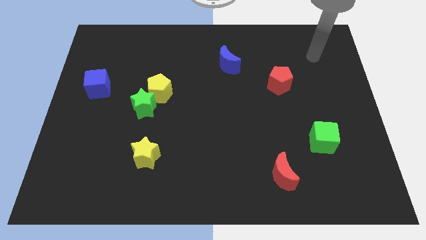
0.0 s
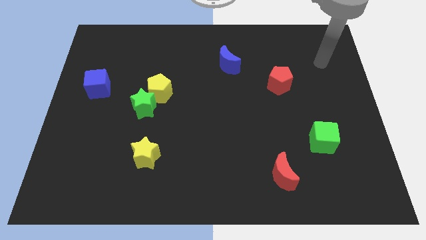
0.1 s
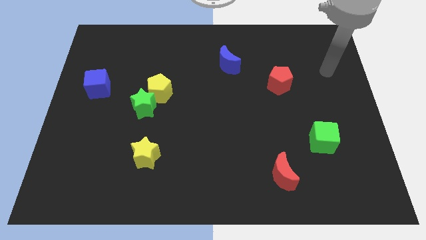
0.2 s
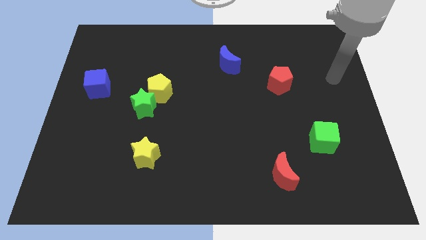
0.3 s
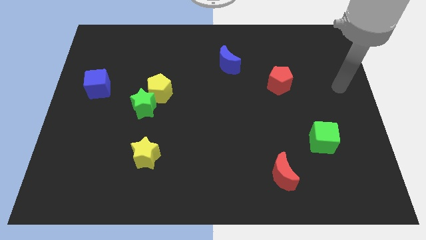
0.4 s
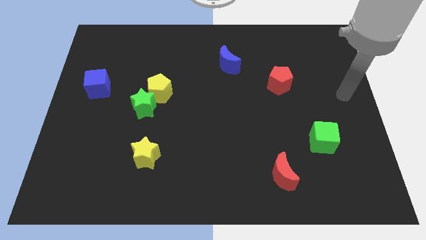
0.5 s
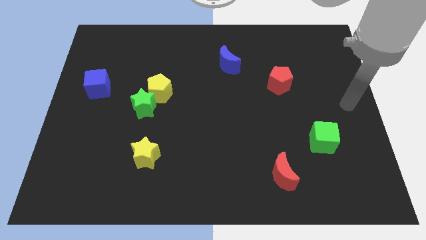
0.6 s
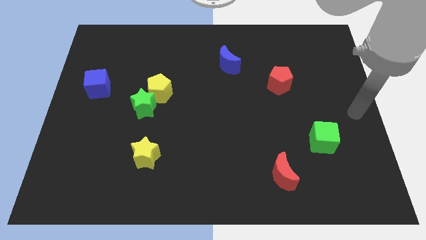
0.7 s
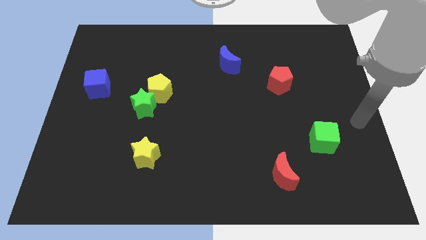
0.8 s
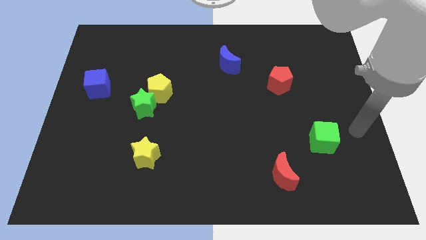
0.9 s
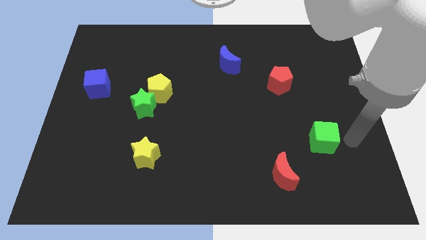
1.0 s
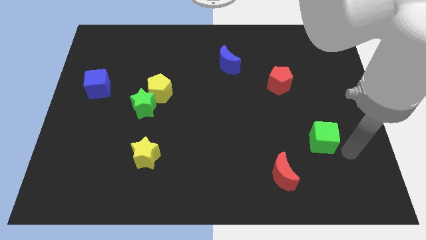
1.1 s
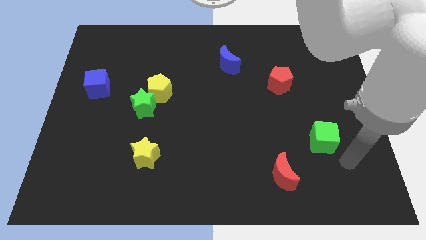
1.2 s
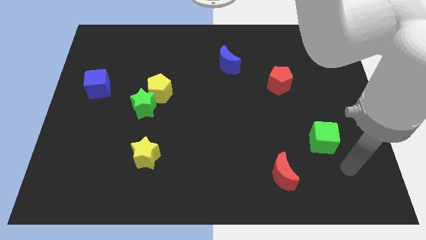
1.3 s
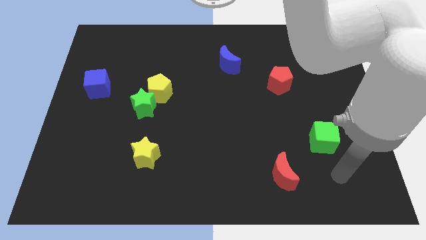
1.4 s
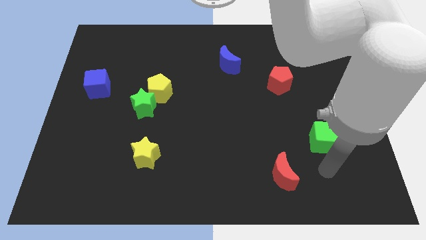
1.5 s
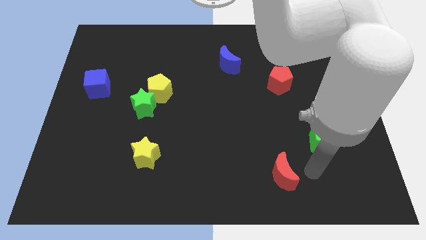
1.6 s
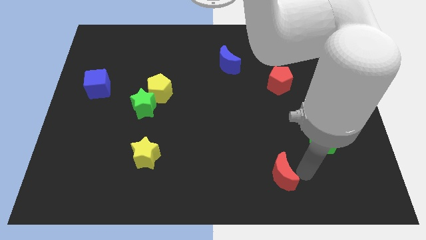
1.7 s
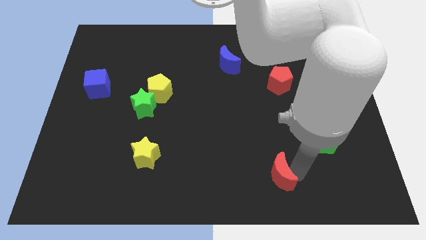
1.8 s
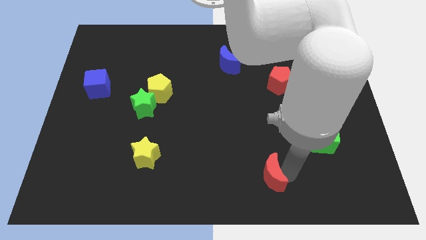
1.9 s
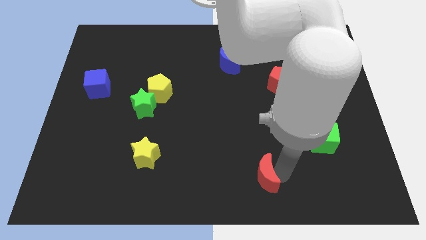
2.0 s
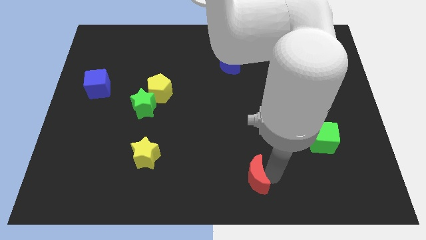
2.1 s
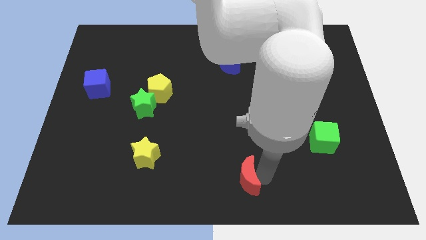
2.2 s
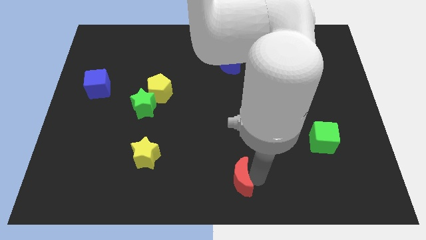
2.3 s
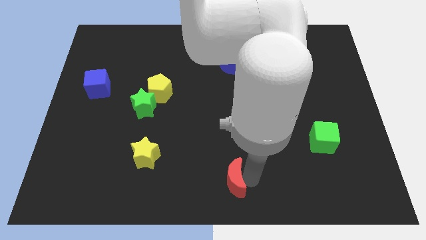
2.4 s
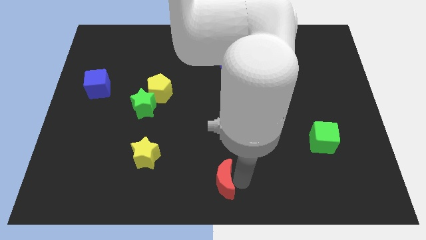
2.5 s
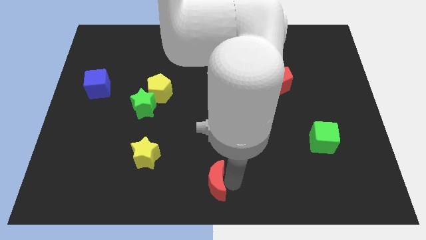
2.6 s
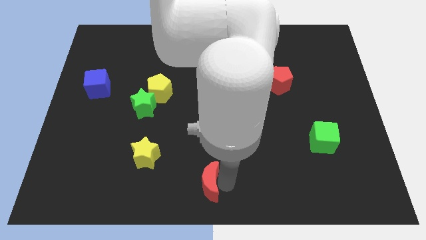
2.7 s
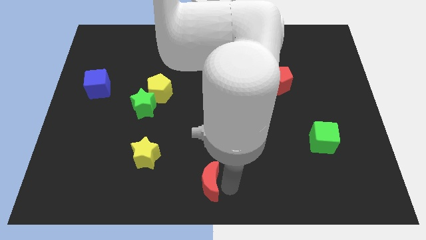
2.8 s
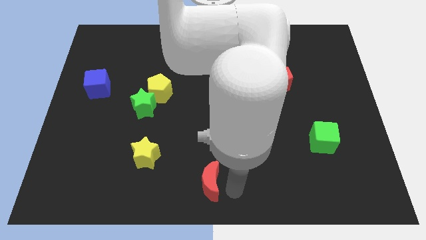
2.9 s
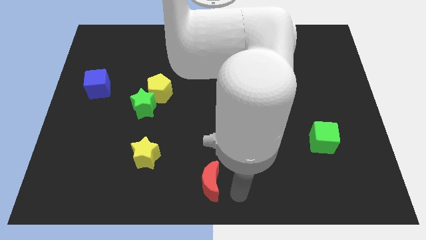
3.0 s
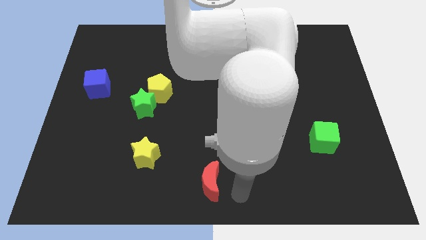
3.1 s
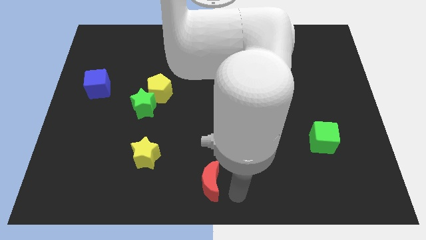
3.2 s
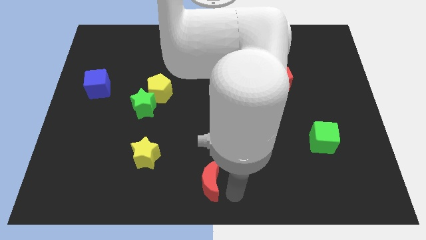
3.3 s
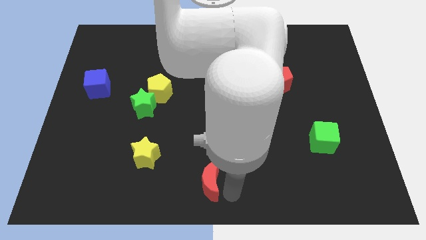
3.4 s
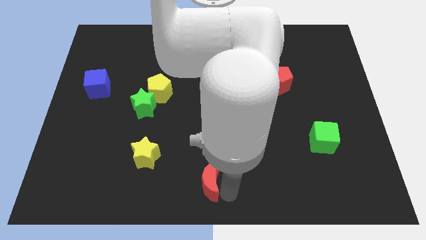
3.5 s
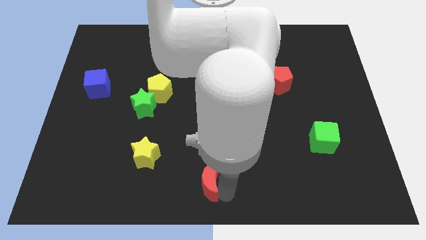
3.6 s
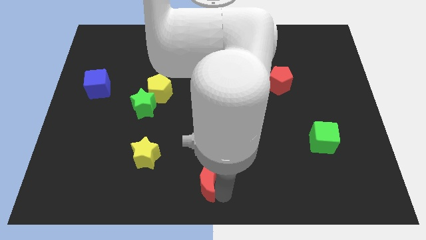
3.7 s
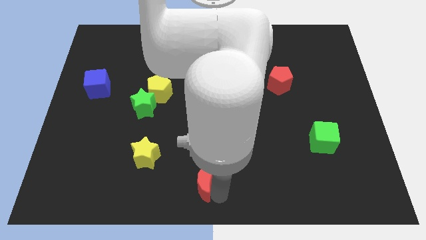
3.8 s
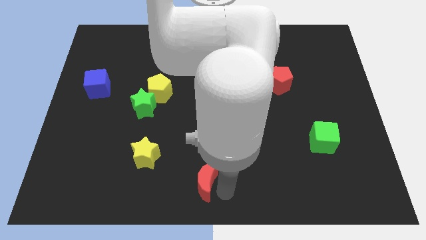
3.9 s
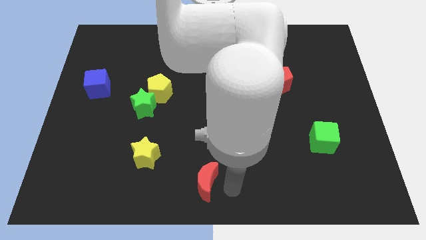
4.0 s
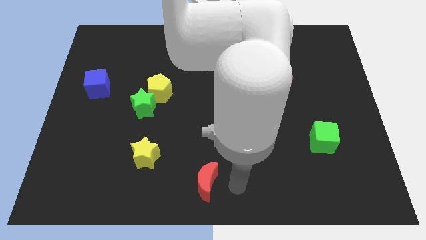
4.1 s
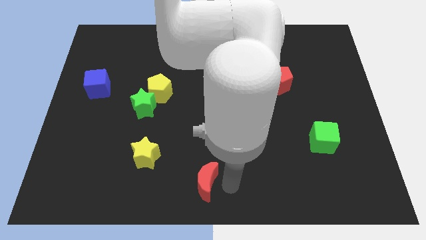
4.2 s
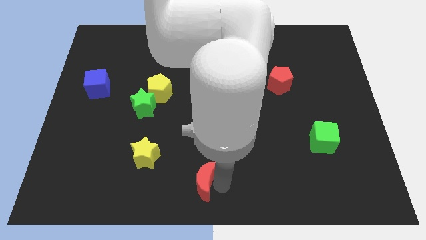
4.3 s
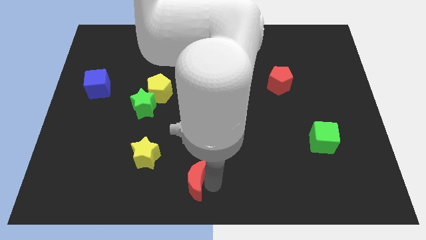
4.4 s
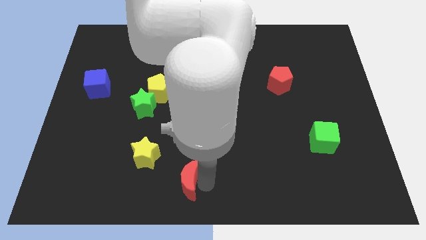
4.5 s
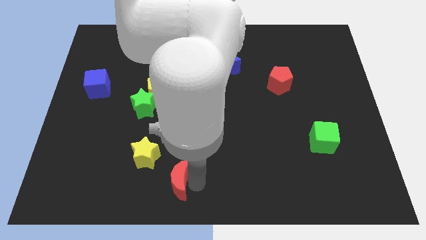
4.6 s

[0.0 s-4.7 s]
push the red moon left

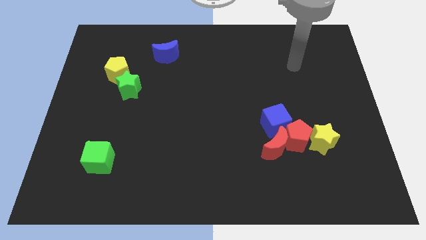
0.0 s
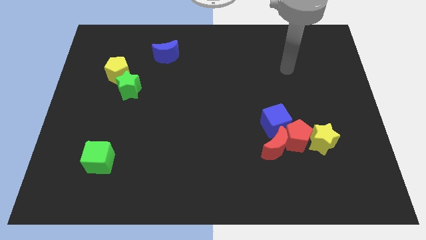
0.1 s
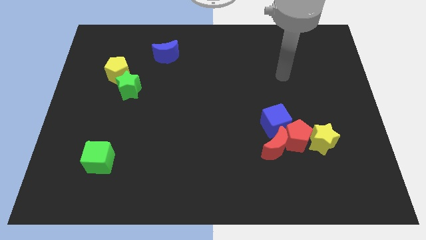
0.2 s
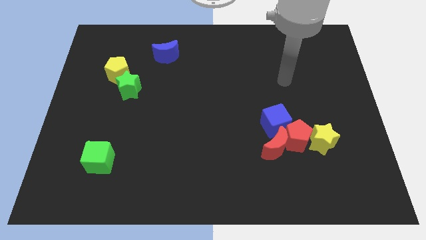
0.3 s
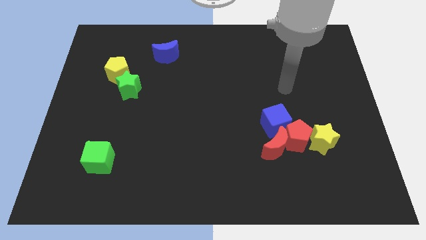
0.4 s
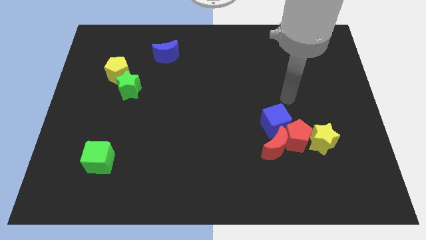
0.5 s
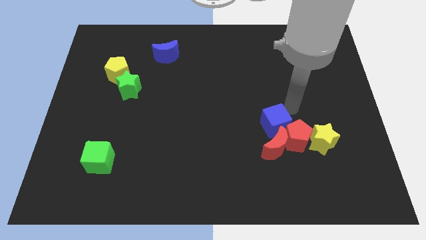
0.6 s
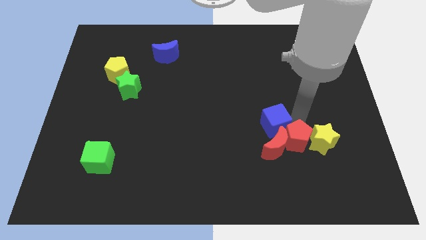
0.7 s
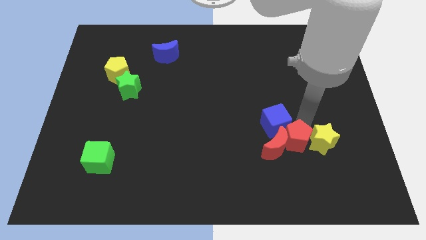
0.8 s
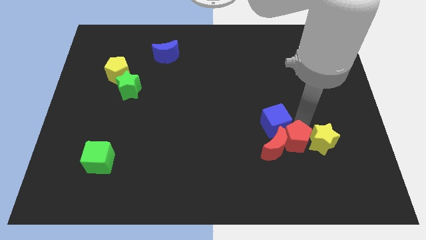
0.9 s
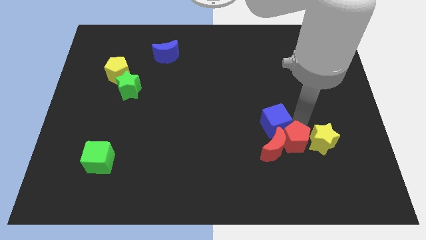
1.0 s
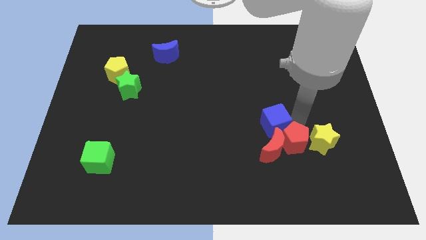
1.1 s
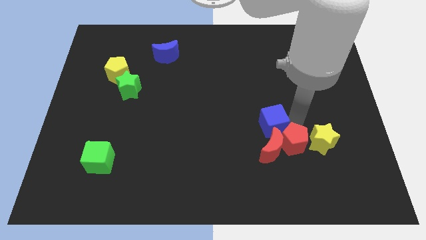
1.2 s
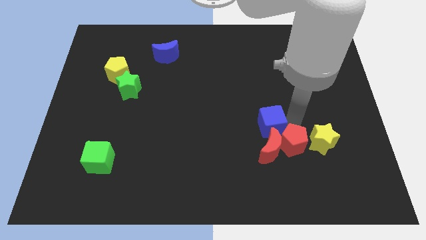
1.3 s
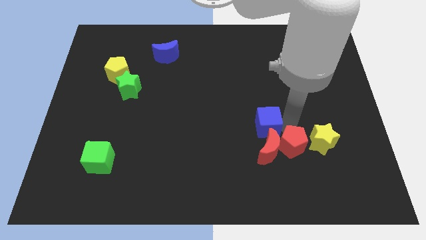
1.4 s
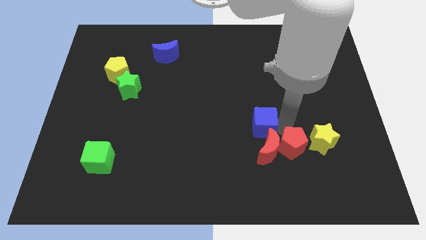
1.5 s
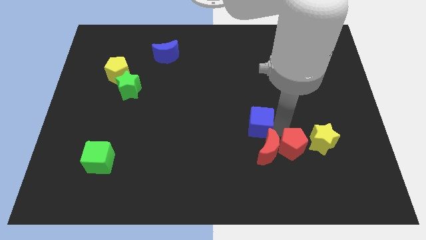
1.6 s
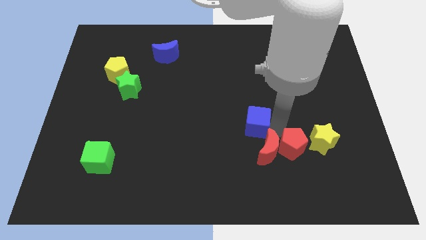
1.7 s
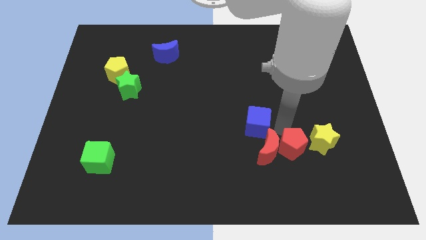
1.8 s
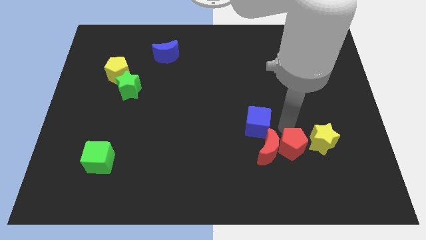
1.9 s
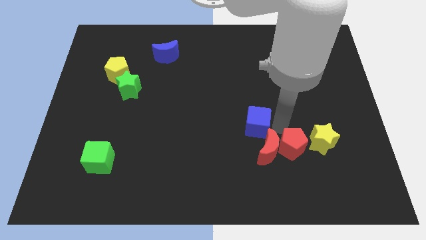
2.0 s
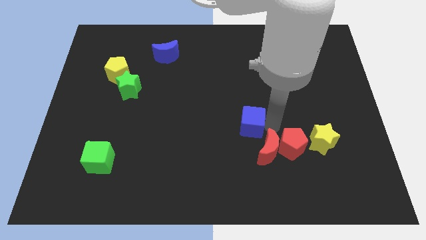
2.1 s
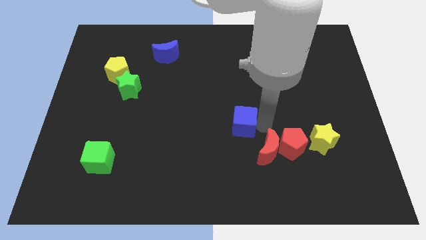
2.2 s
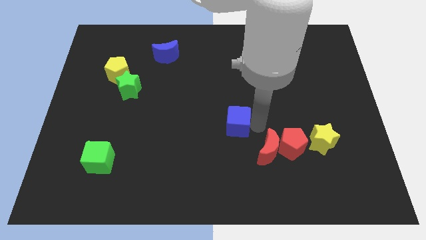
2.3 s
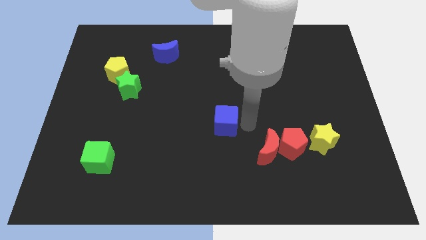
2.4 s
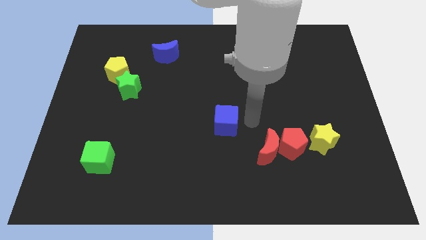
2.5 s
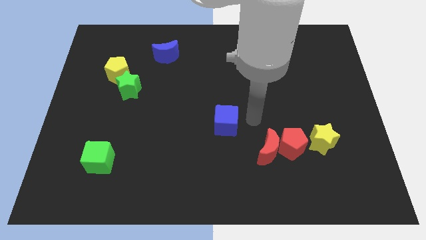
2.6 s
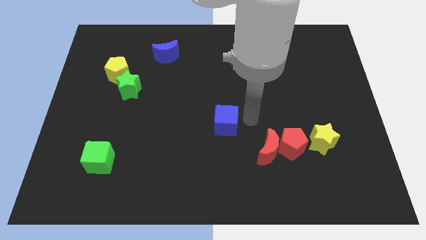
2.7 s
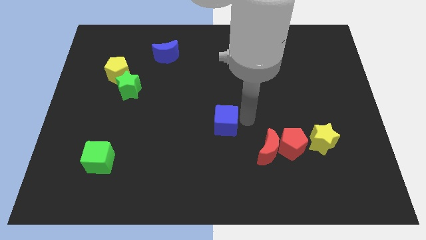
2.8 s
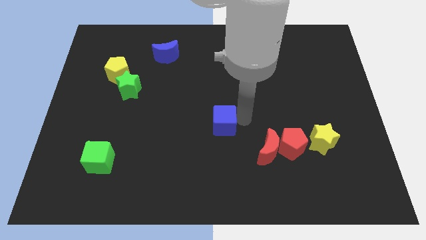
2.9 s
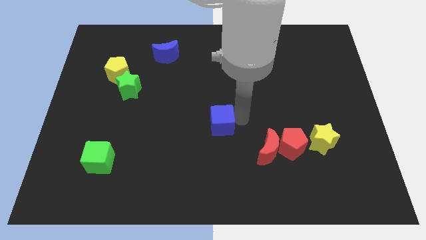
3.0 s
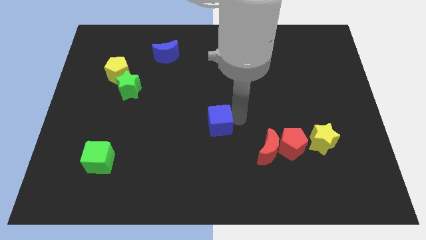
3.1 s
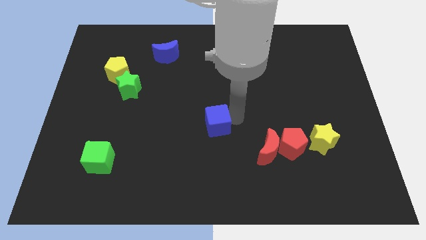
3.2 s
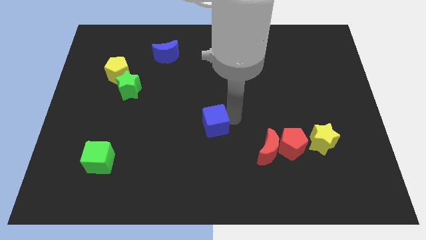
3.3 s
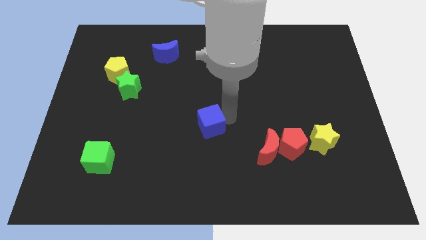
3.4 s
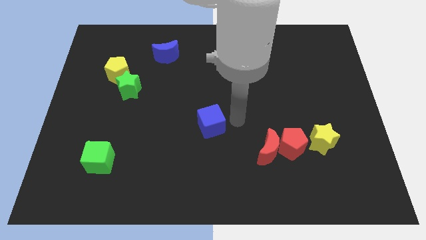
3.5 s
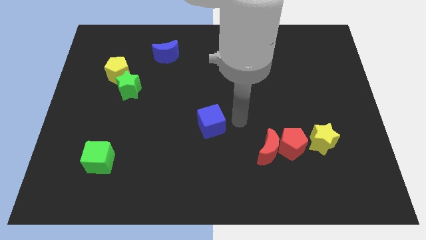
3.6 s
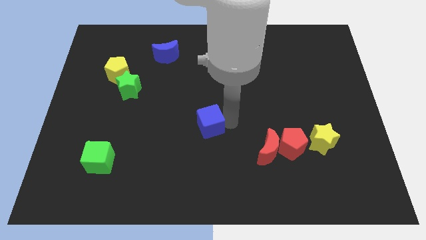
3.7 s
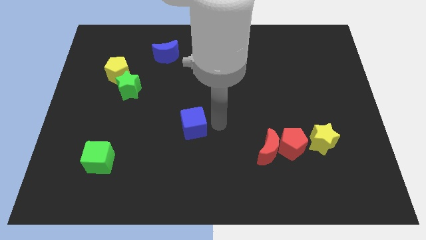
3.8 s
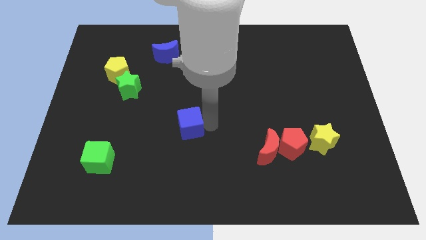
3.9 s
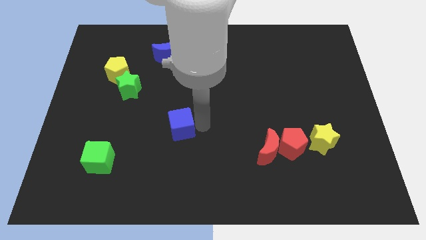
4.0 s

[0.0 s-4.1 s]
move the blue cube left
